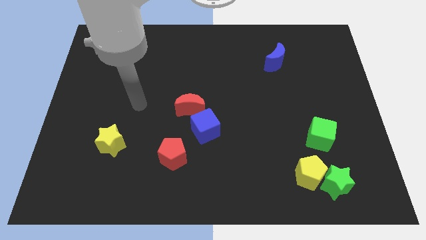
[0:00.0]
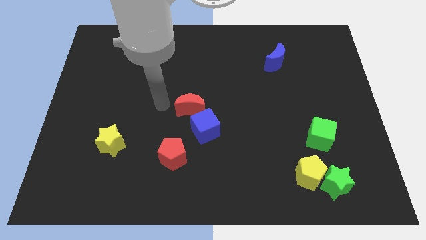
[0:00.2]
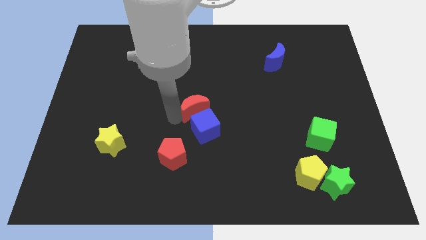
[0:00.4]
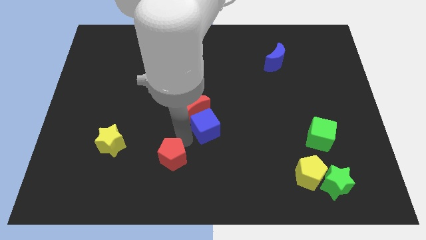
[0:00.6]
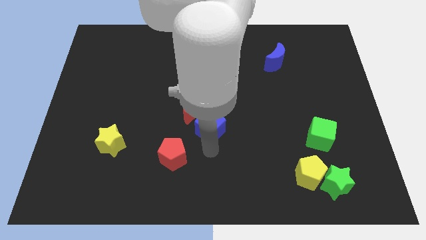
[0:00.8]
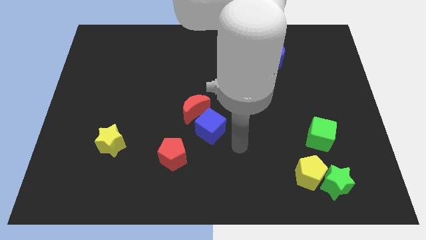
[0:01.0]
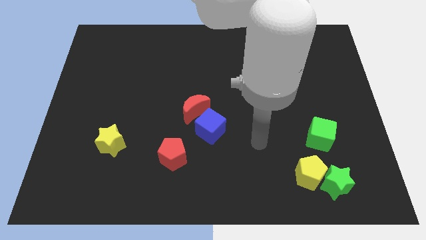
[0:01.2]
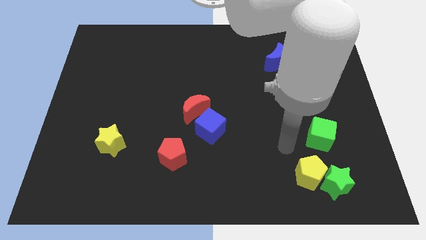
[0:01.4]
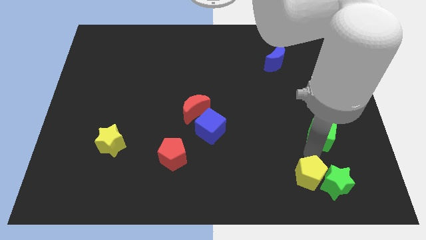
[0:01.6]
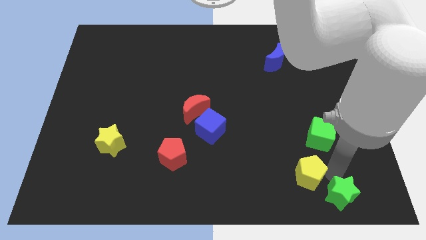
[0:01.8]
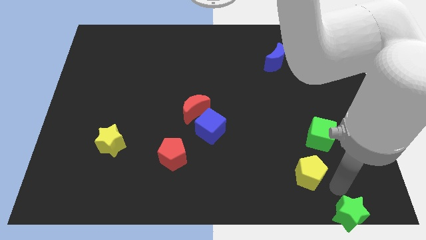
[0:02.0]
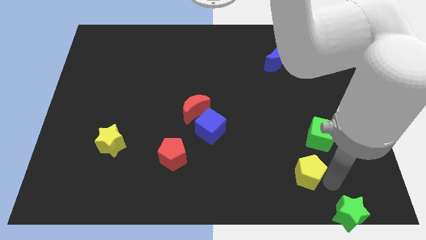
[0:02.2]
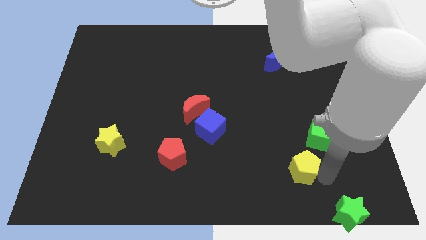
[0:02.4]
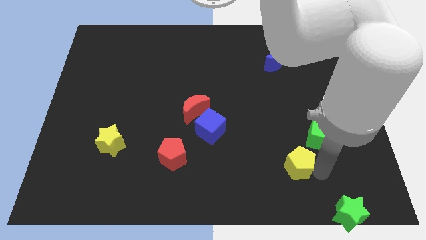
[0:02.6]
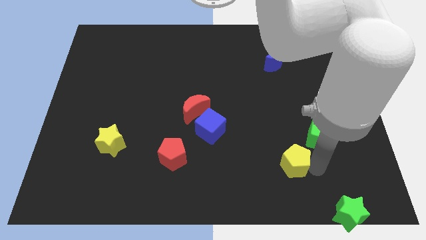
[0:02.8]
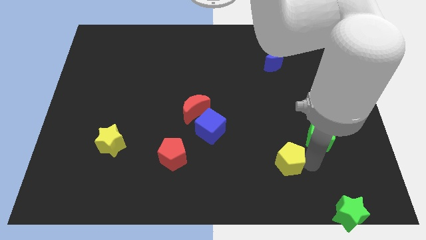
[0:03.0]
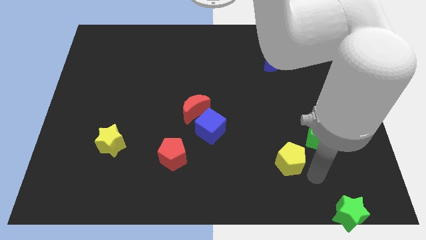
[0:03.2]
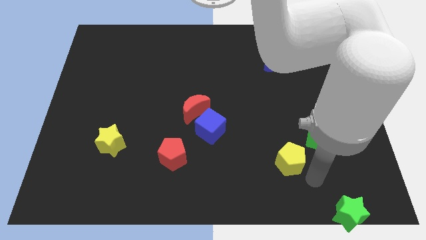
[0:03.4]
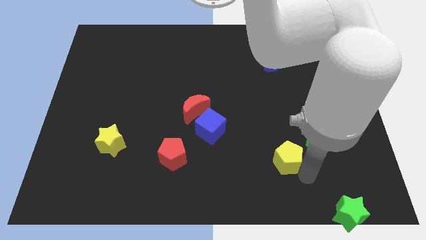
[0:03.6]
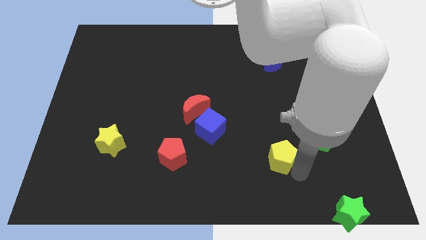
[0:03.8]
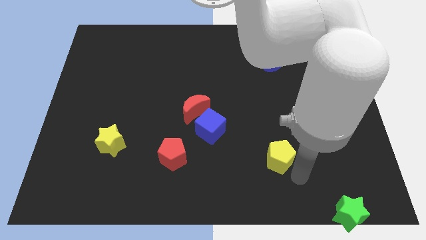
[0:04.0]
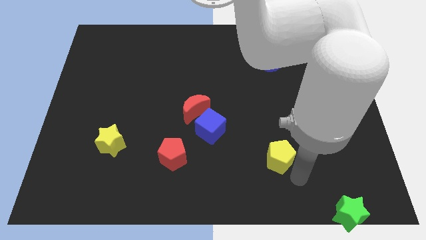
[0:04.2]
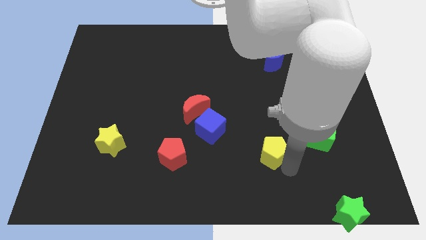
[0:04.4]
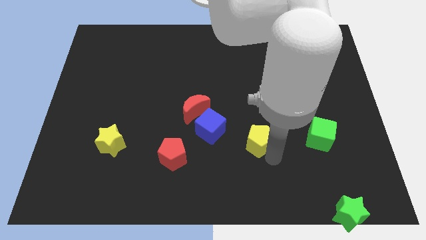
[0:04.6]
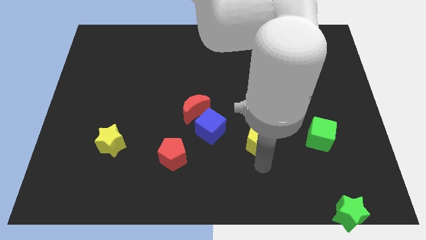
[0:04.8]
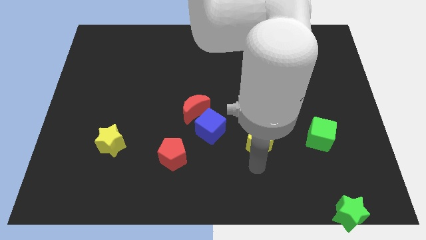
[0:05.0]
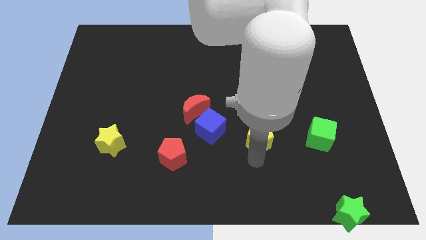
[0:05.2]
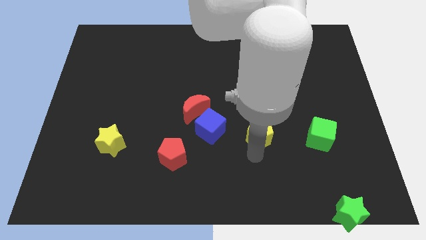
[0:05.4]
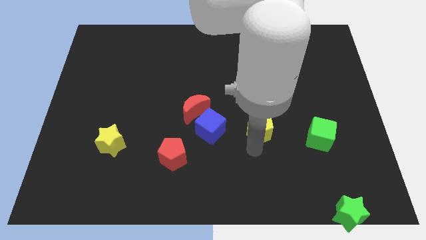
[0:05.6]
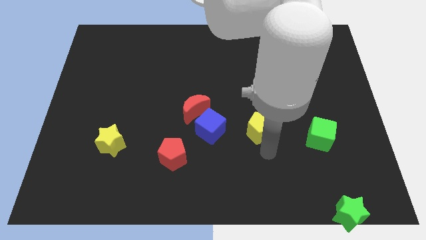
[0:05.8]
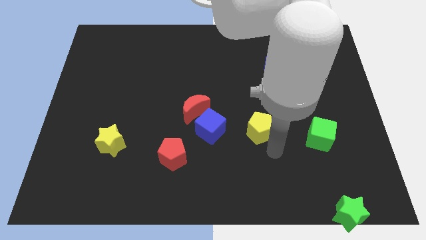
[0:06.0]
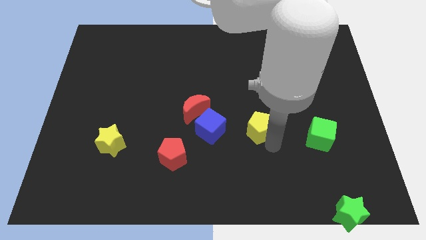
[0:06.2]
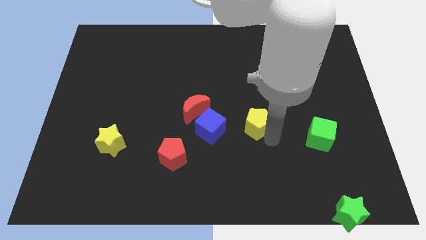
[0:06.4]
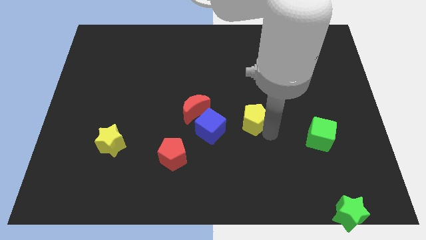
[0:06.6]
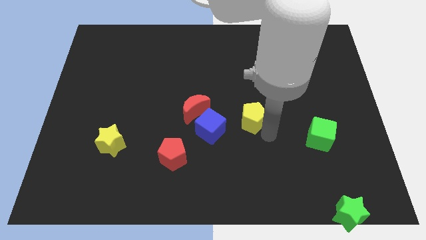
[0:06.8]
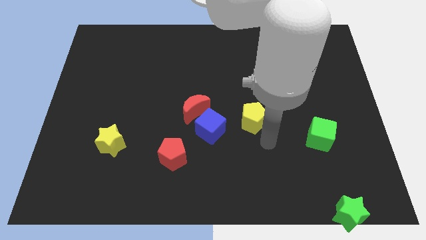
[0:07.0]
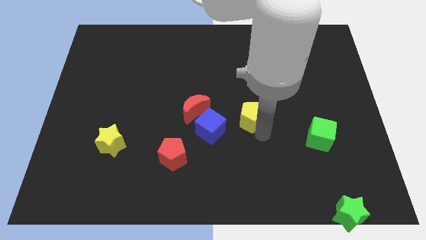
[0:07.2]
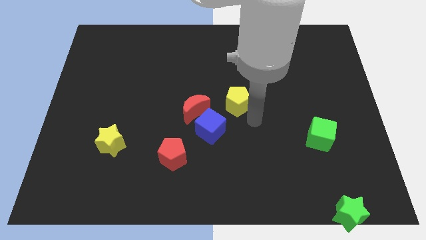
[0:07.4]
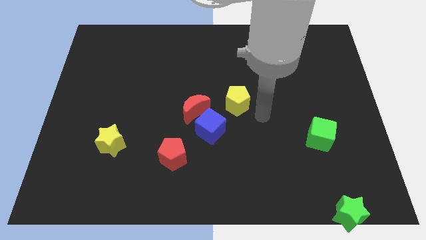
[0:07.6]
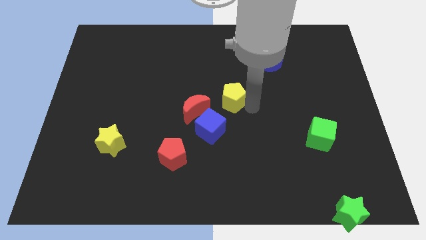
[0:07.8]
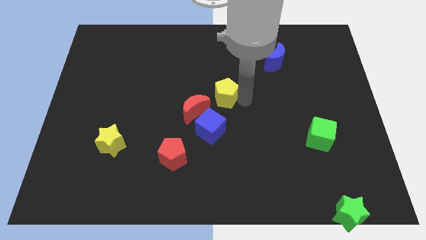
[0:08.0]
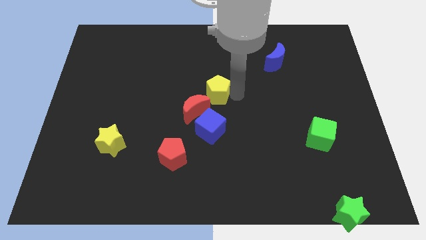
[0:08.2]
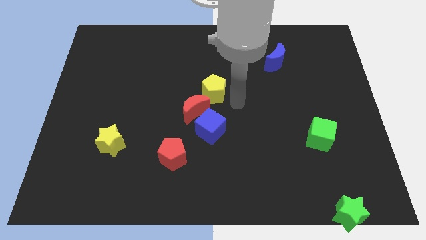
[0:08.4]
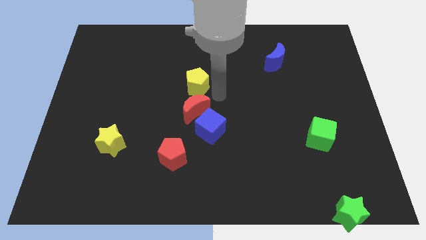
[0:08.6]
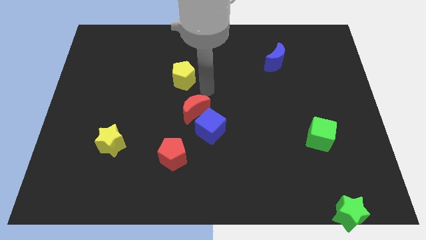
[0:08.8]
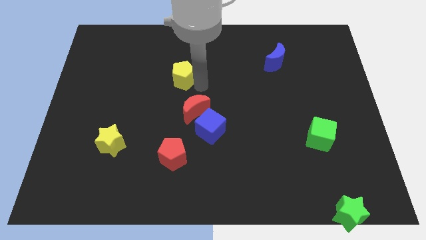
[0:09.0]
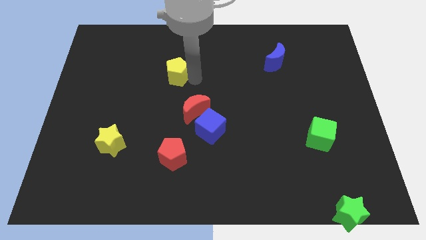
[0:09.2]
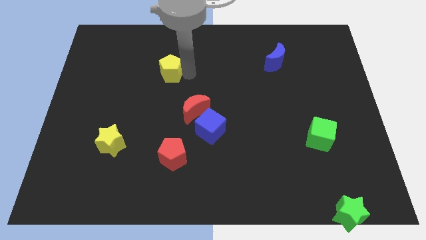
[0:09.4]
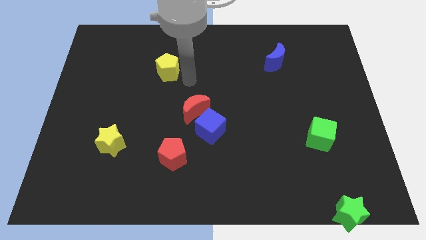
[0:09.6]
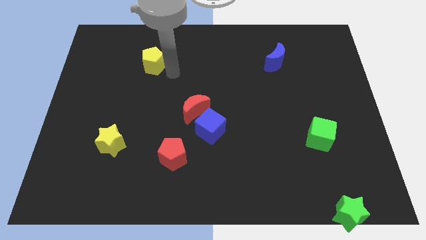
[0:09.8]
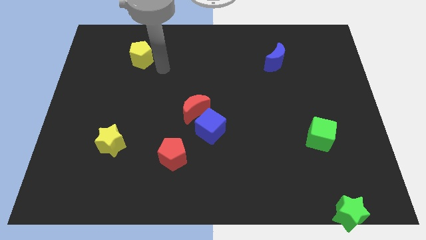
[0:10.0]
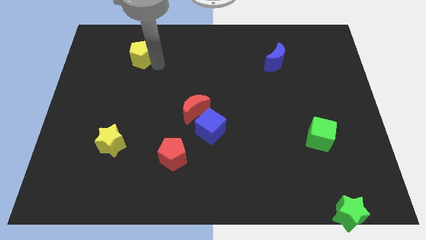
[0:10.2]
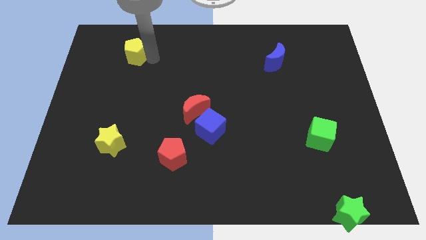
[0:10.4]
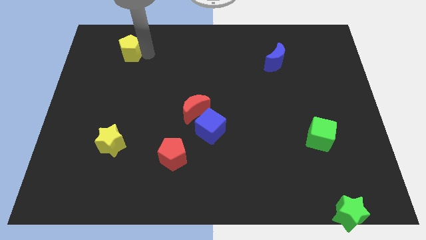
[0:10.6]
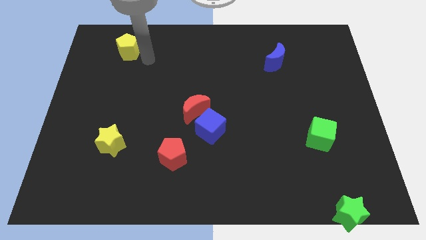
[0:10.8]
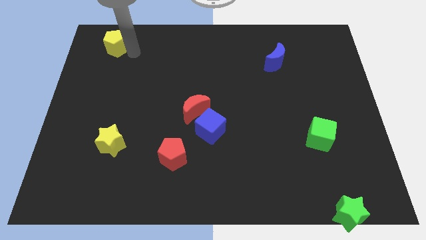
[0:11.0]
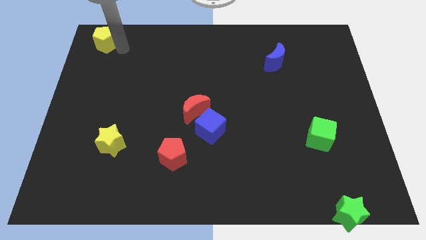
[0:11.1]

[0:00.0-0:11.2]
push the yellow pentagon to the top left
